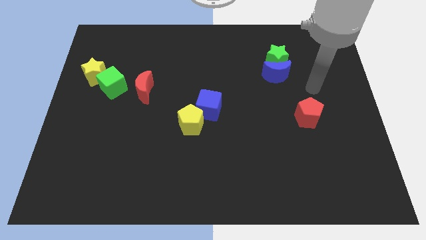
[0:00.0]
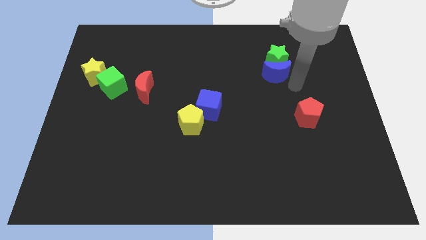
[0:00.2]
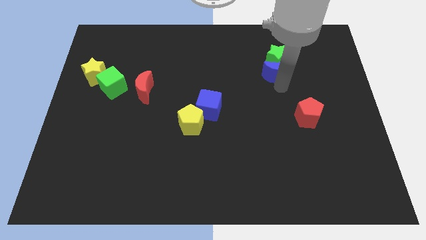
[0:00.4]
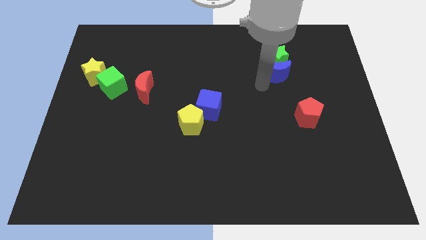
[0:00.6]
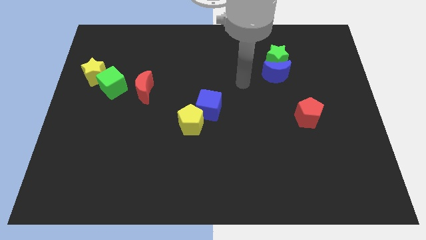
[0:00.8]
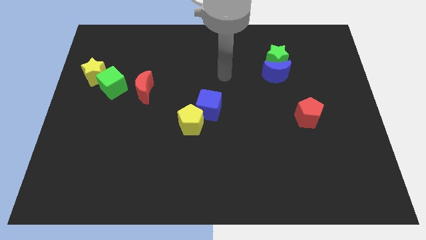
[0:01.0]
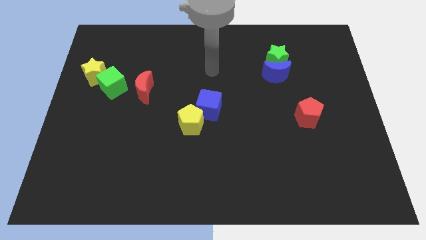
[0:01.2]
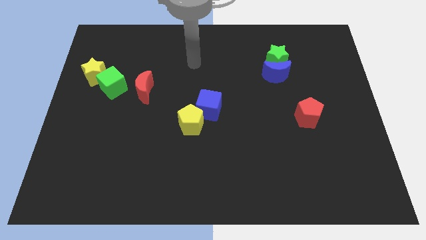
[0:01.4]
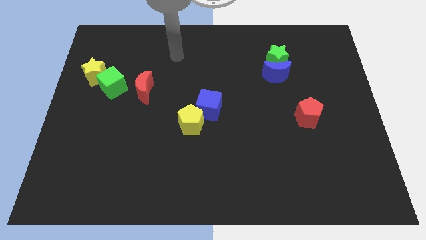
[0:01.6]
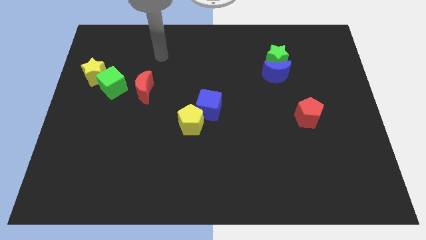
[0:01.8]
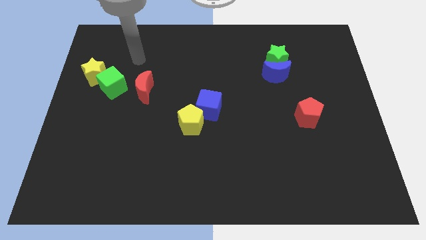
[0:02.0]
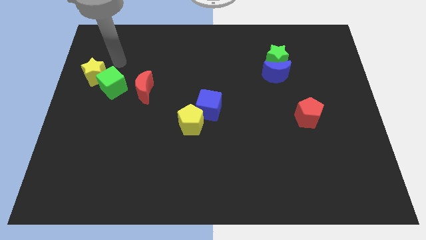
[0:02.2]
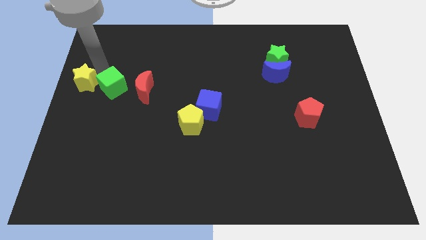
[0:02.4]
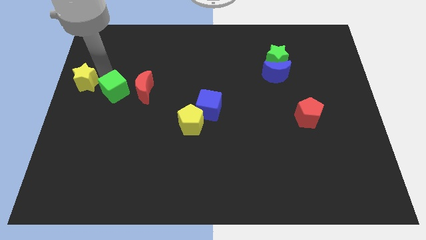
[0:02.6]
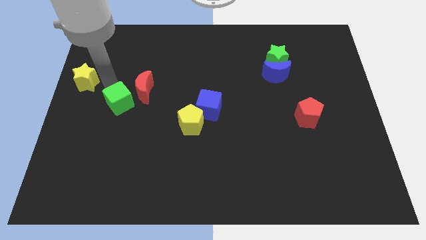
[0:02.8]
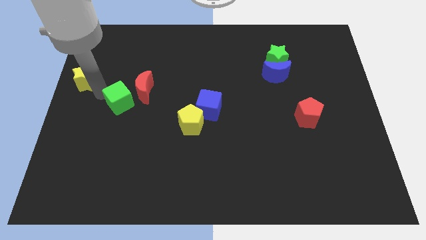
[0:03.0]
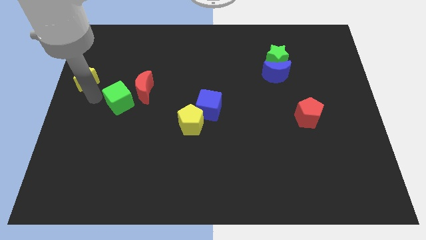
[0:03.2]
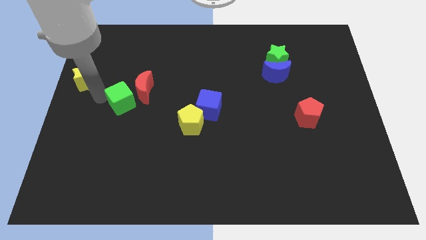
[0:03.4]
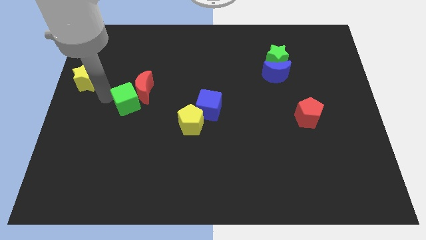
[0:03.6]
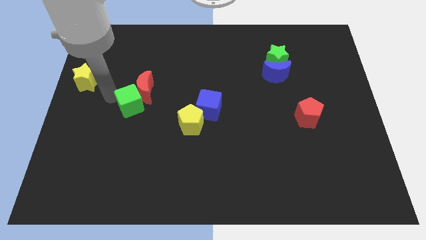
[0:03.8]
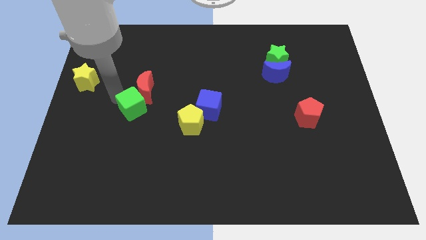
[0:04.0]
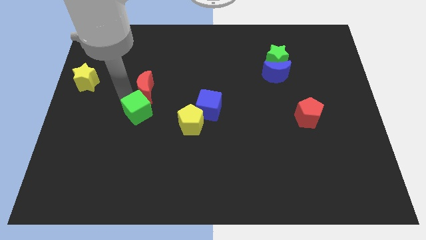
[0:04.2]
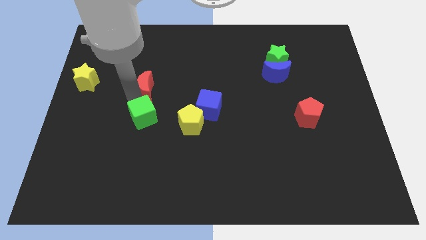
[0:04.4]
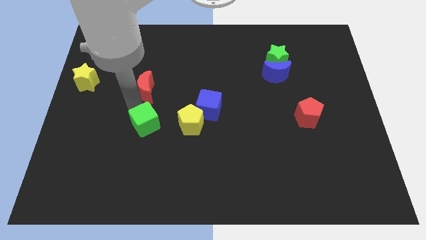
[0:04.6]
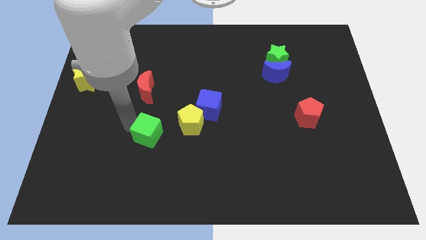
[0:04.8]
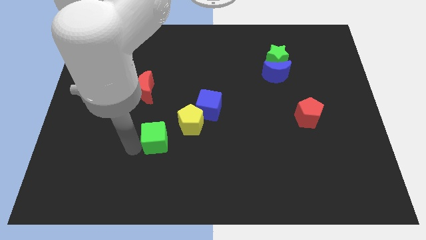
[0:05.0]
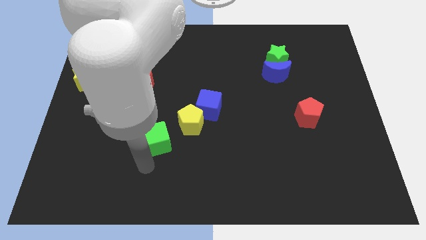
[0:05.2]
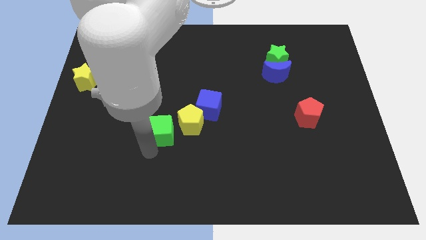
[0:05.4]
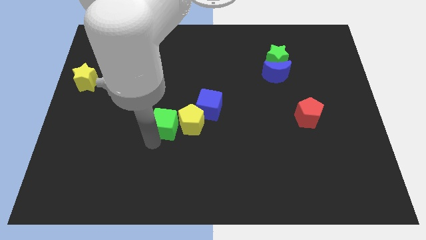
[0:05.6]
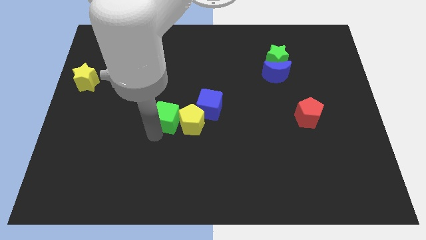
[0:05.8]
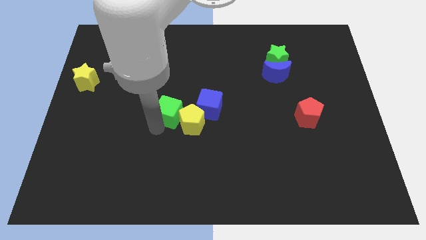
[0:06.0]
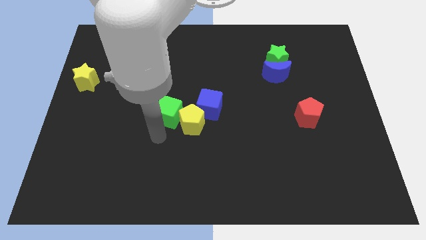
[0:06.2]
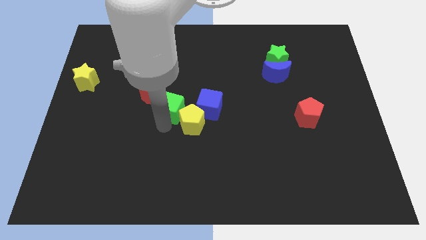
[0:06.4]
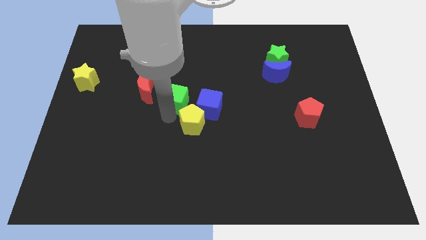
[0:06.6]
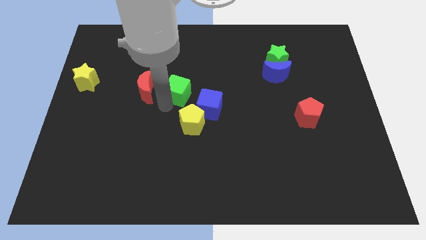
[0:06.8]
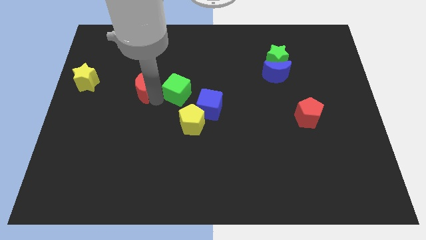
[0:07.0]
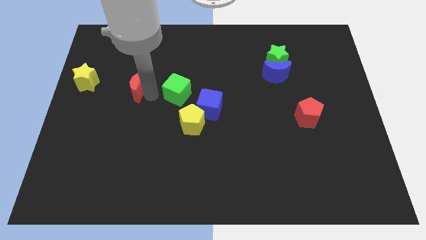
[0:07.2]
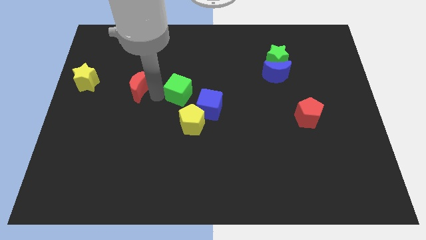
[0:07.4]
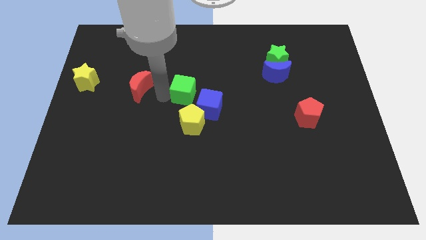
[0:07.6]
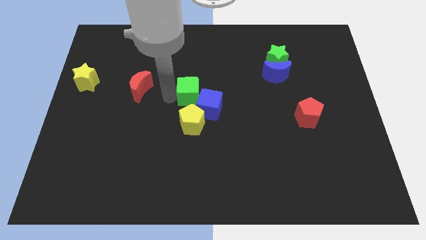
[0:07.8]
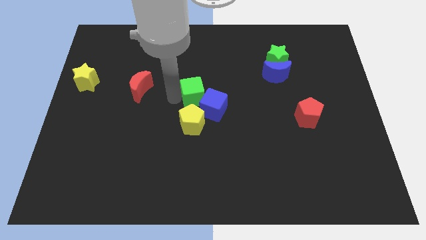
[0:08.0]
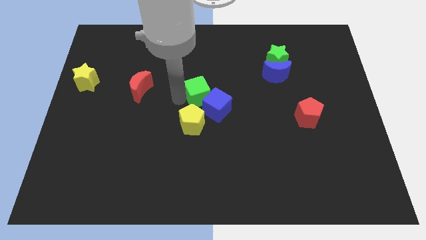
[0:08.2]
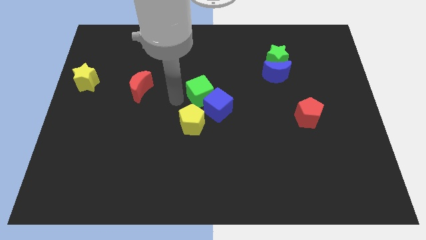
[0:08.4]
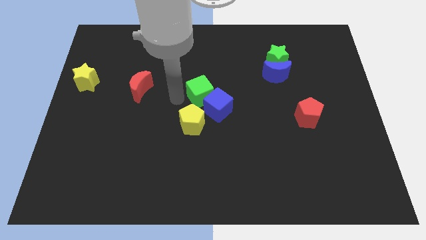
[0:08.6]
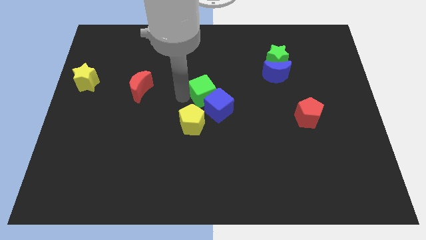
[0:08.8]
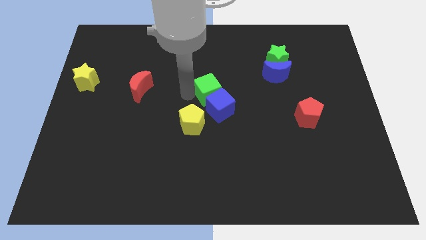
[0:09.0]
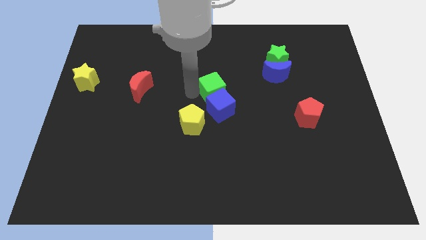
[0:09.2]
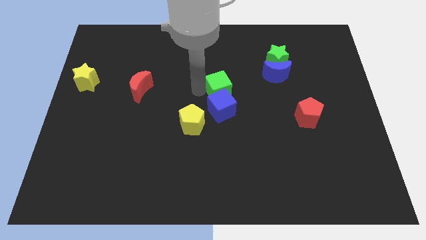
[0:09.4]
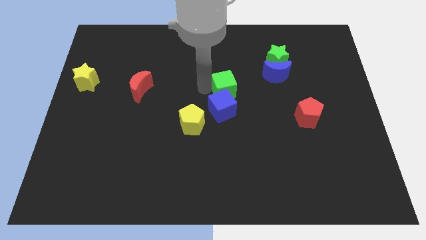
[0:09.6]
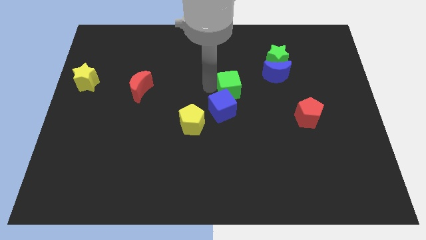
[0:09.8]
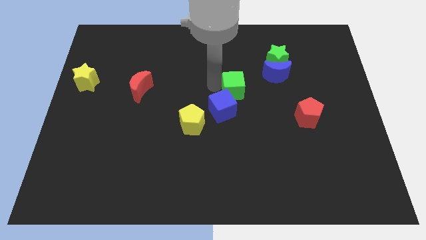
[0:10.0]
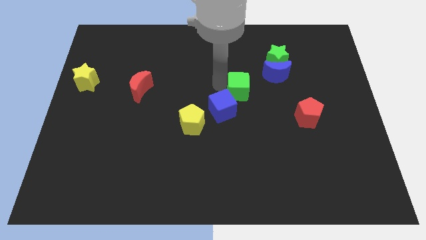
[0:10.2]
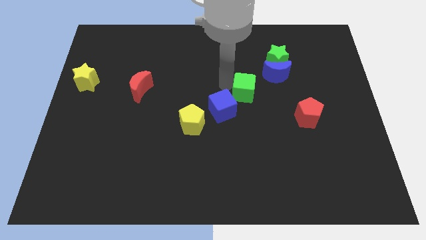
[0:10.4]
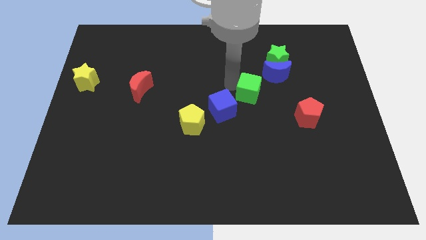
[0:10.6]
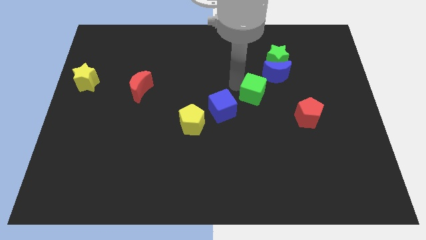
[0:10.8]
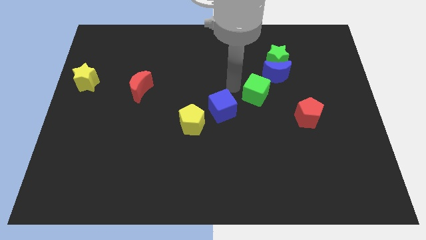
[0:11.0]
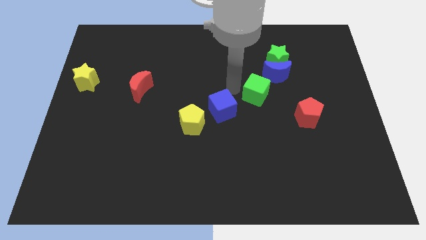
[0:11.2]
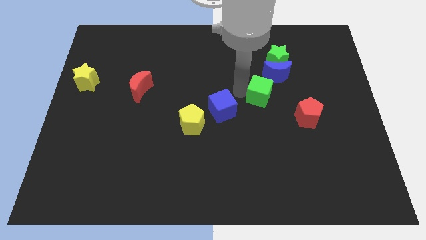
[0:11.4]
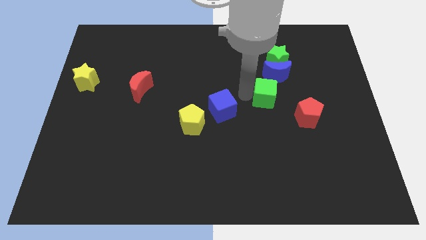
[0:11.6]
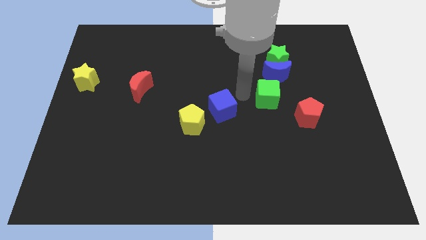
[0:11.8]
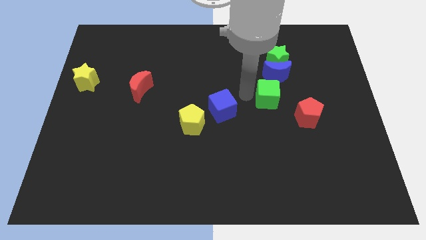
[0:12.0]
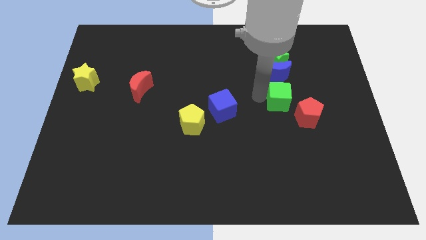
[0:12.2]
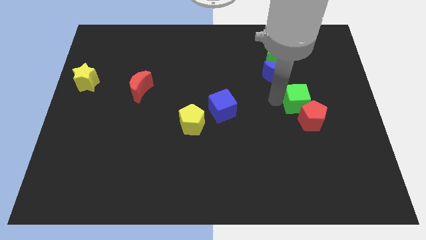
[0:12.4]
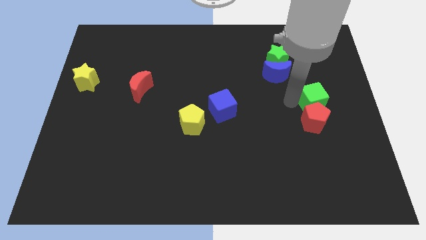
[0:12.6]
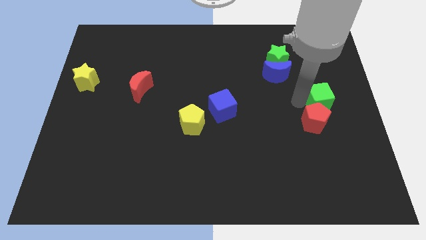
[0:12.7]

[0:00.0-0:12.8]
push the green cube to the right side
